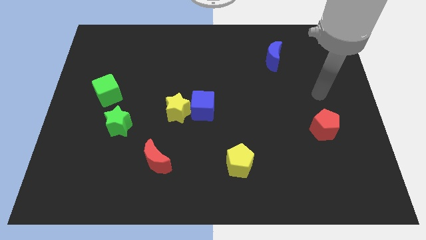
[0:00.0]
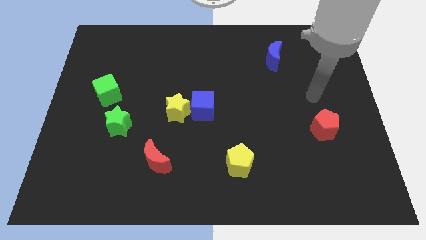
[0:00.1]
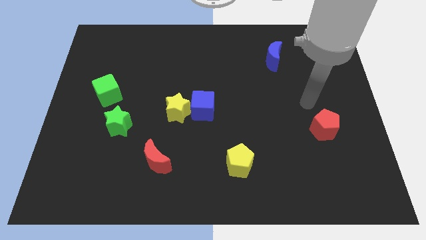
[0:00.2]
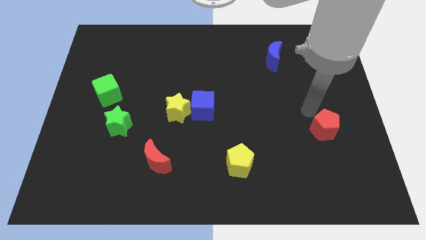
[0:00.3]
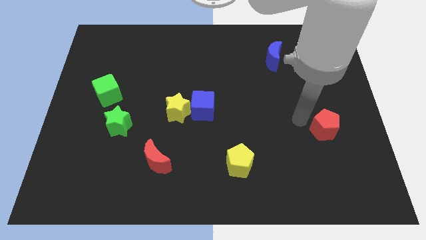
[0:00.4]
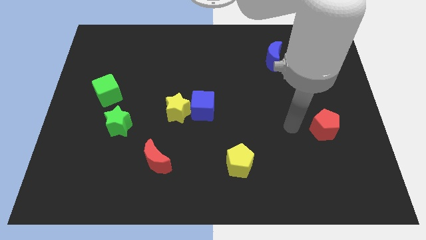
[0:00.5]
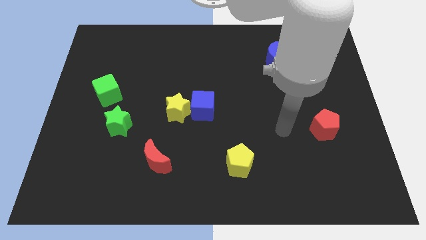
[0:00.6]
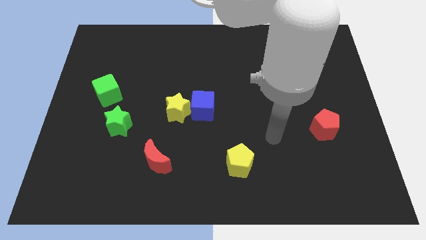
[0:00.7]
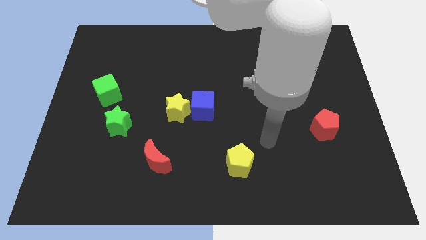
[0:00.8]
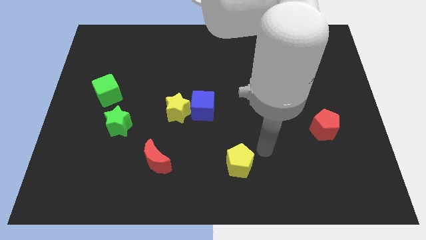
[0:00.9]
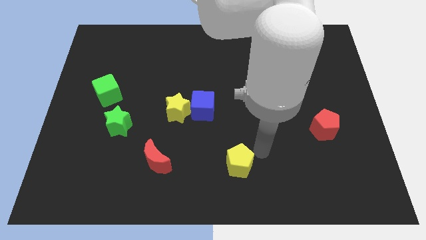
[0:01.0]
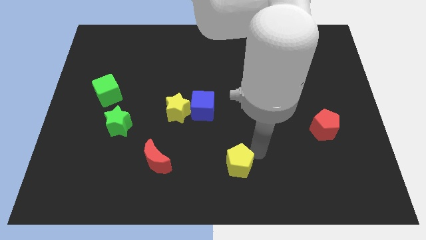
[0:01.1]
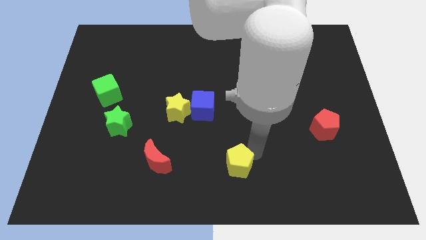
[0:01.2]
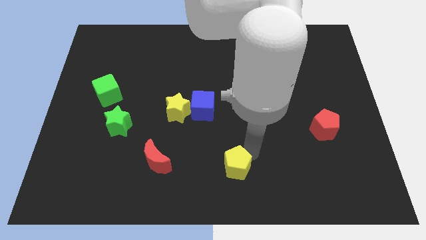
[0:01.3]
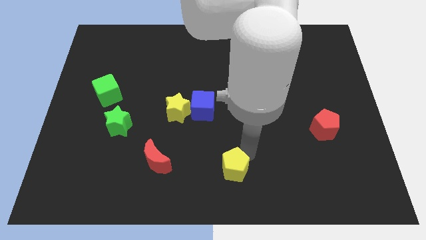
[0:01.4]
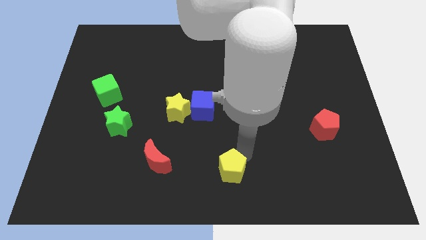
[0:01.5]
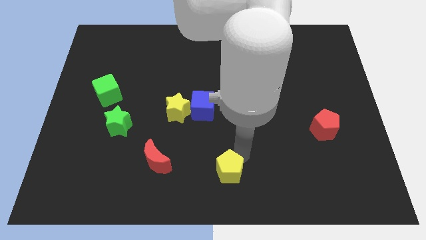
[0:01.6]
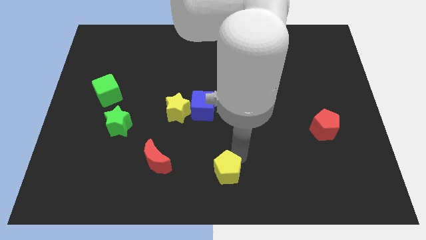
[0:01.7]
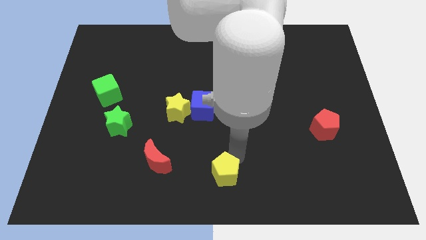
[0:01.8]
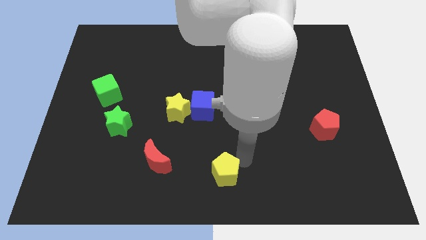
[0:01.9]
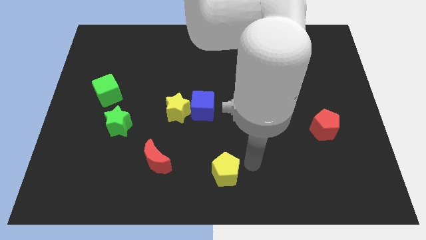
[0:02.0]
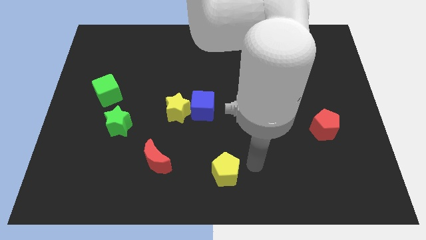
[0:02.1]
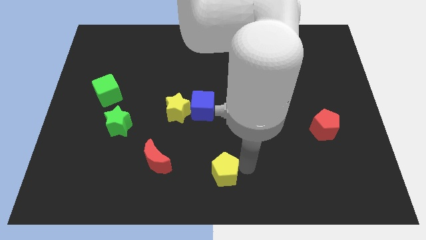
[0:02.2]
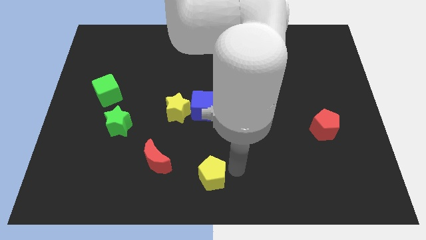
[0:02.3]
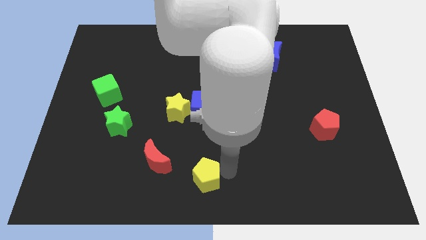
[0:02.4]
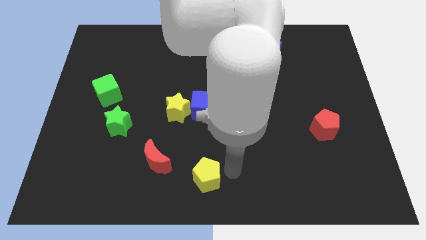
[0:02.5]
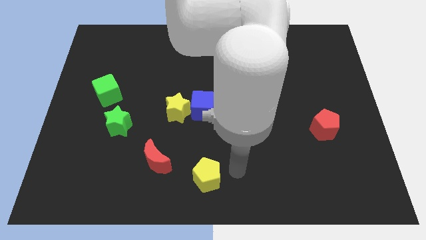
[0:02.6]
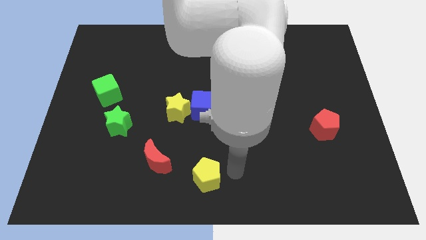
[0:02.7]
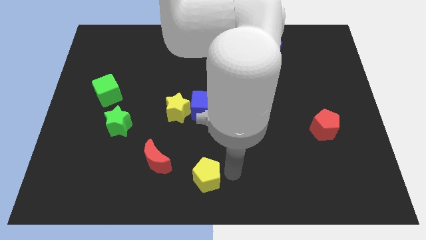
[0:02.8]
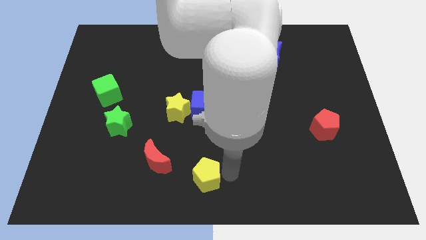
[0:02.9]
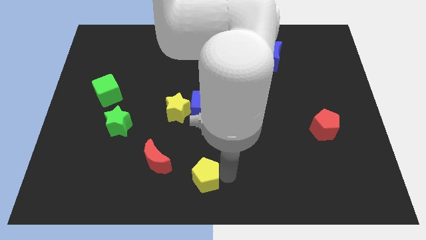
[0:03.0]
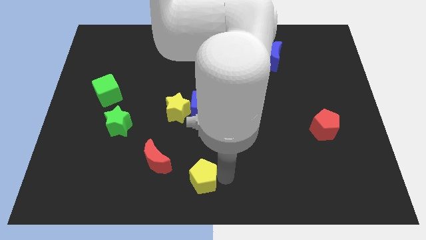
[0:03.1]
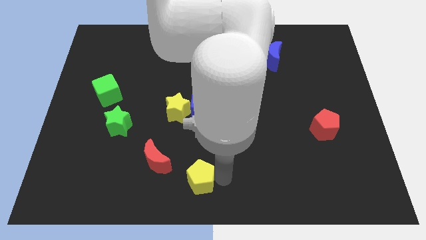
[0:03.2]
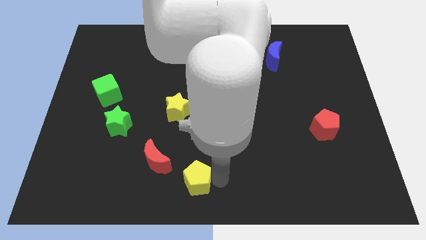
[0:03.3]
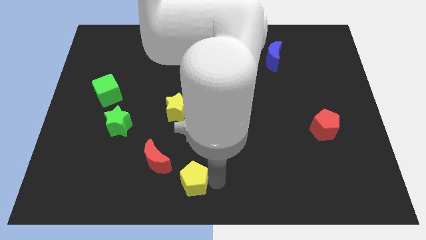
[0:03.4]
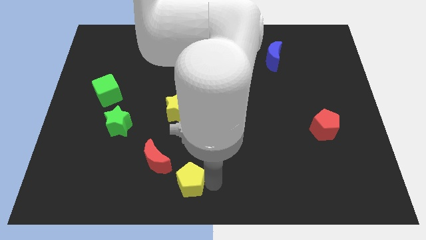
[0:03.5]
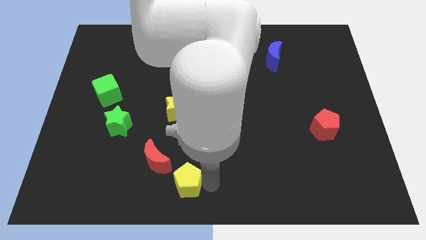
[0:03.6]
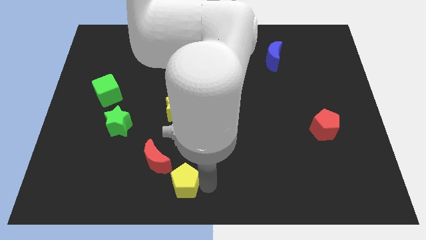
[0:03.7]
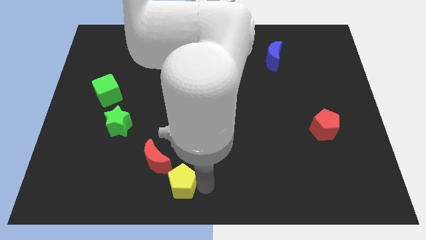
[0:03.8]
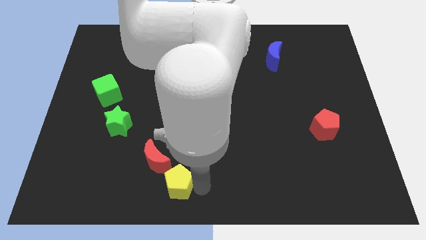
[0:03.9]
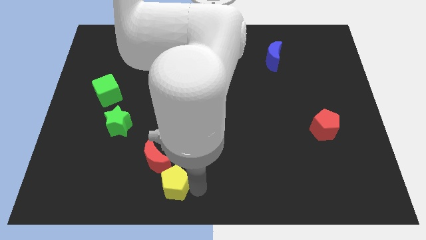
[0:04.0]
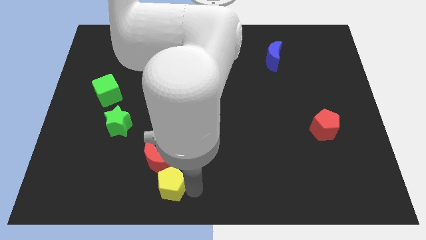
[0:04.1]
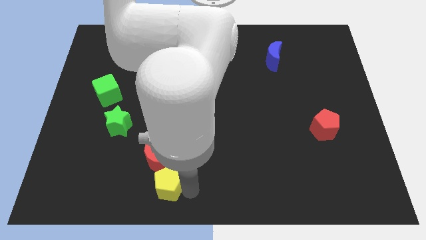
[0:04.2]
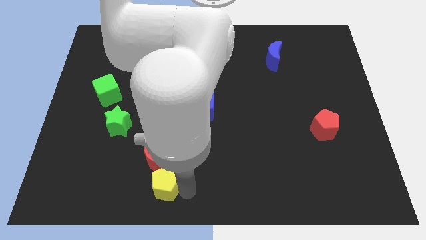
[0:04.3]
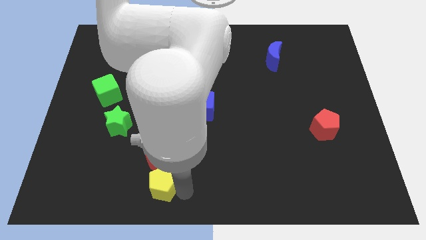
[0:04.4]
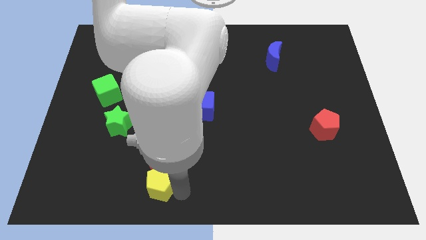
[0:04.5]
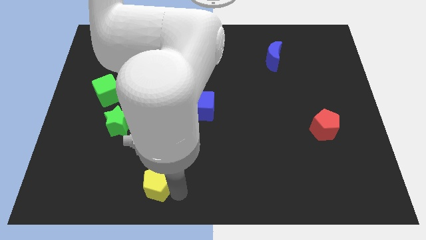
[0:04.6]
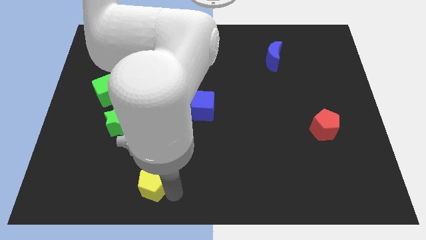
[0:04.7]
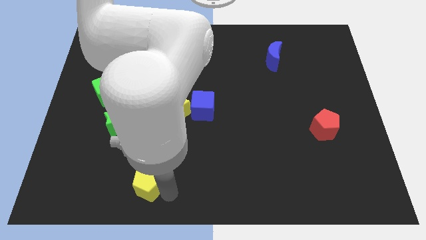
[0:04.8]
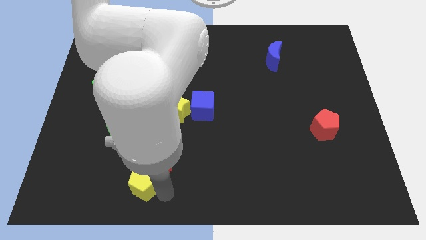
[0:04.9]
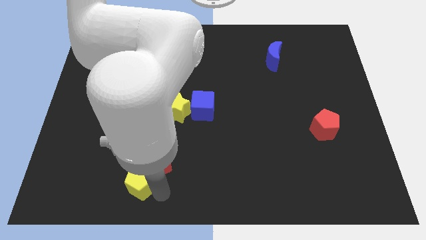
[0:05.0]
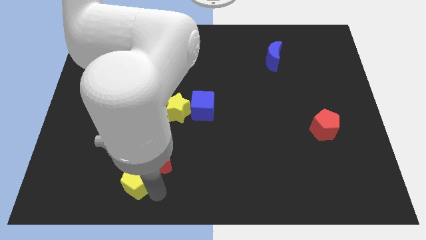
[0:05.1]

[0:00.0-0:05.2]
push the yellow pentagon to the left

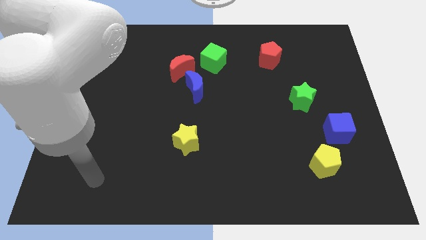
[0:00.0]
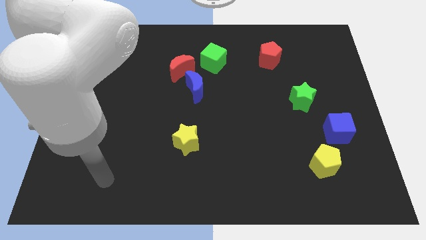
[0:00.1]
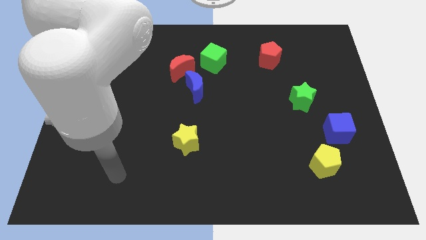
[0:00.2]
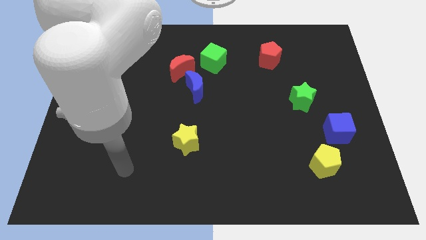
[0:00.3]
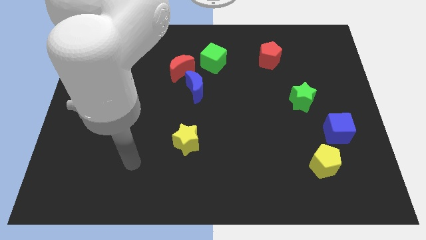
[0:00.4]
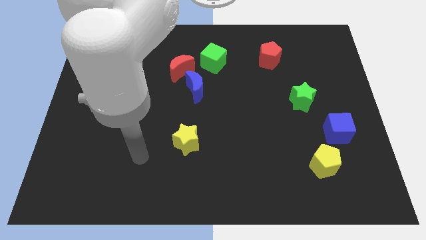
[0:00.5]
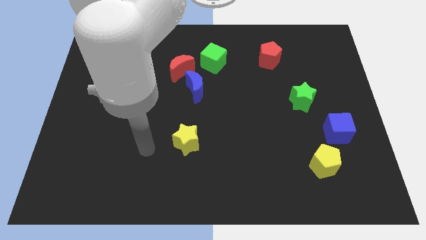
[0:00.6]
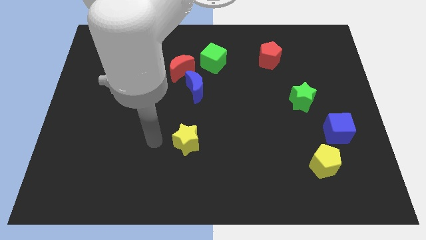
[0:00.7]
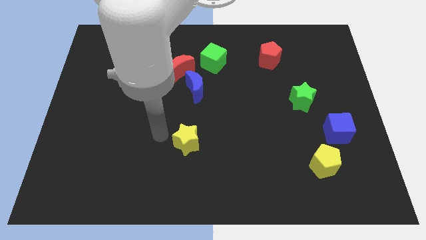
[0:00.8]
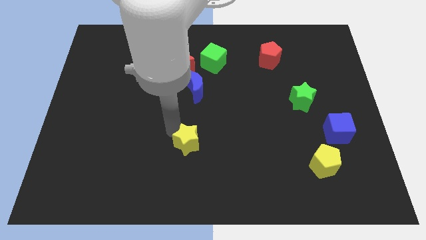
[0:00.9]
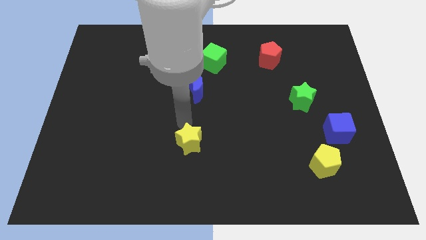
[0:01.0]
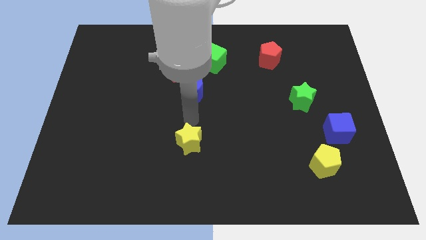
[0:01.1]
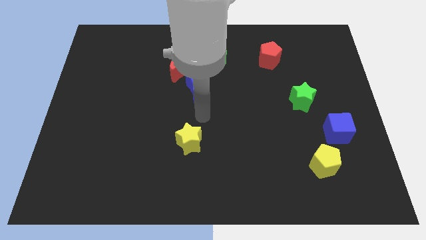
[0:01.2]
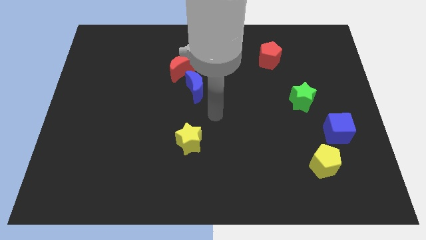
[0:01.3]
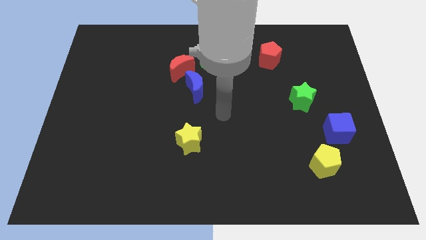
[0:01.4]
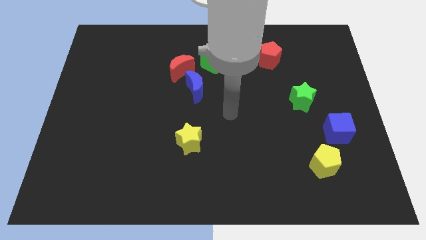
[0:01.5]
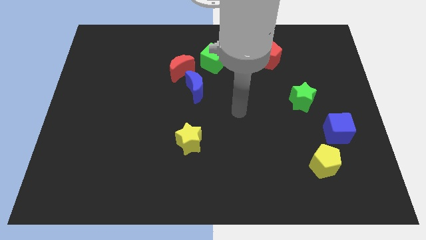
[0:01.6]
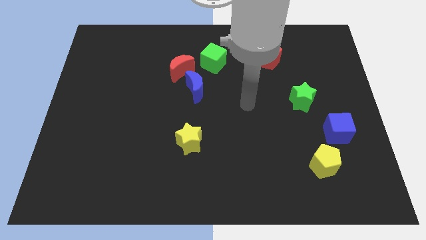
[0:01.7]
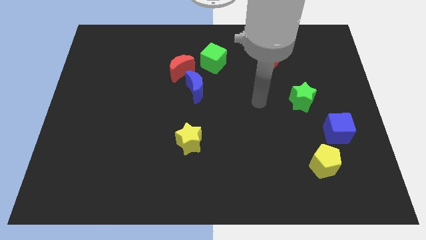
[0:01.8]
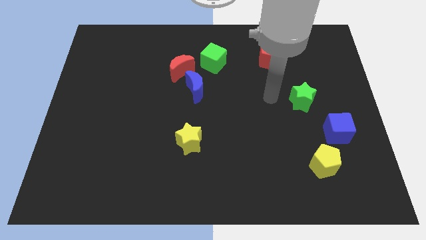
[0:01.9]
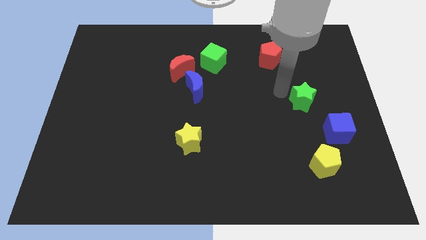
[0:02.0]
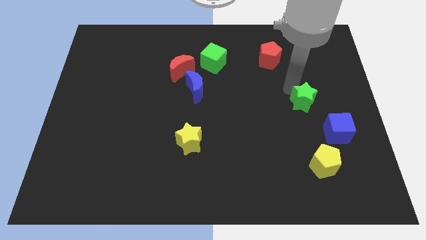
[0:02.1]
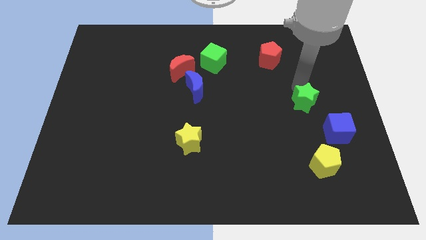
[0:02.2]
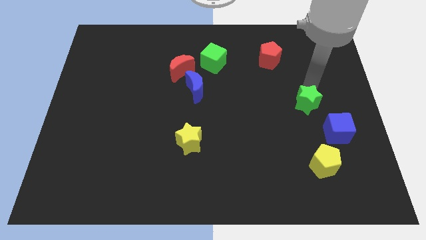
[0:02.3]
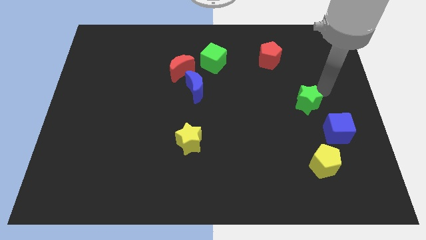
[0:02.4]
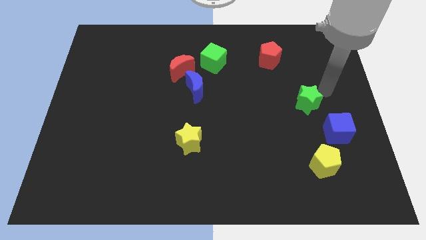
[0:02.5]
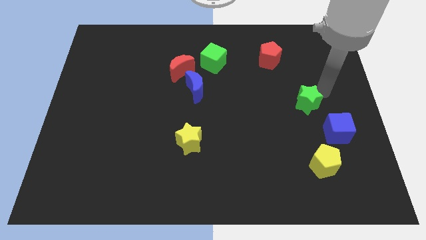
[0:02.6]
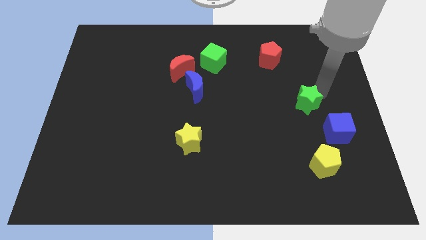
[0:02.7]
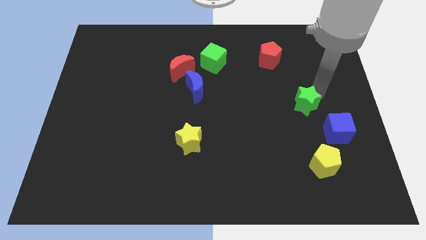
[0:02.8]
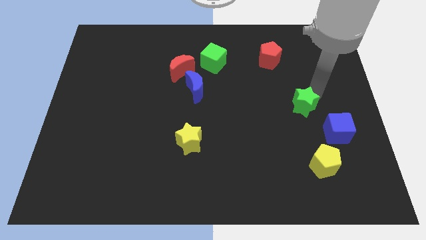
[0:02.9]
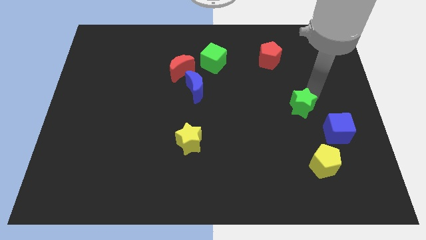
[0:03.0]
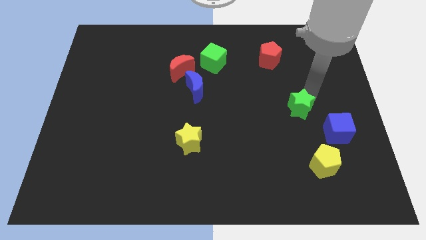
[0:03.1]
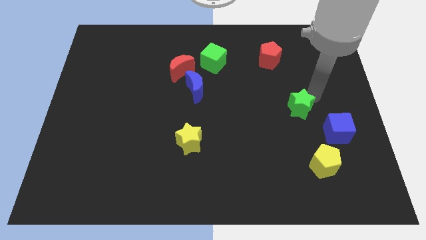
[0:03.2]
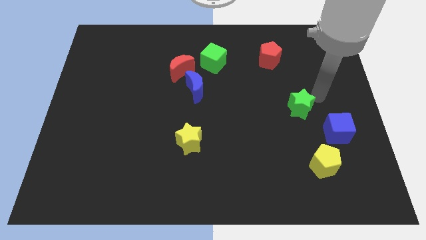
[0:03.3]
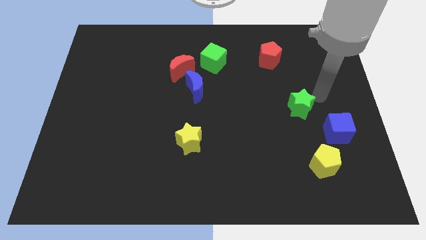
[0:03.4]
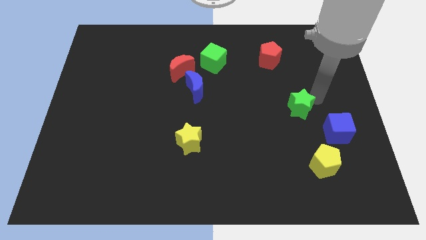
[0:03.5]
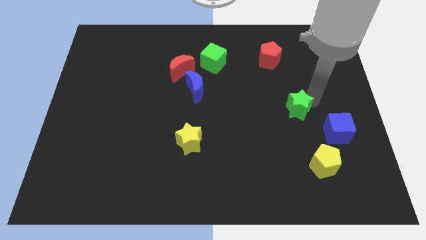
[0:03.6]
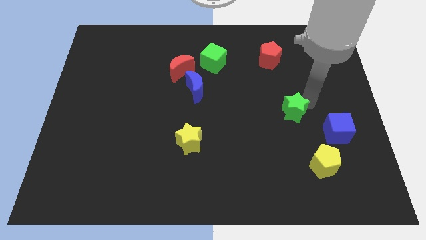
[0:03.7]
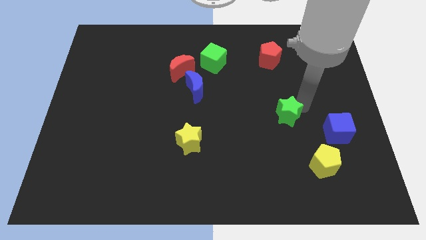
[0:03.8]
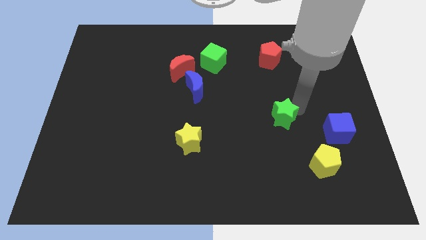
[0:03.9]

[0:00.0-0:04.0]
move the green star down and to the left diagonally a little
